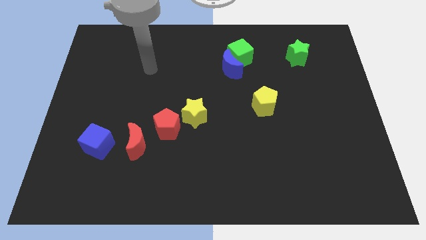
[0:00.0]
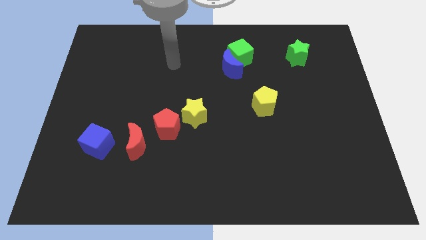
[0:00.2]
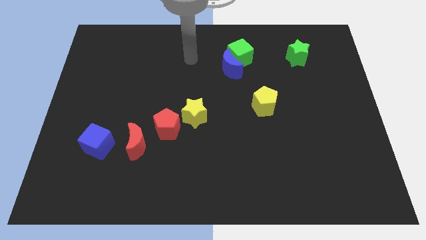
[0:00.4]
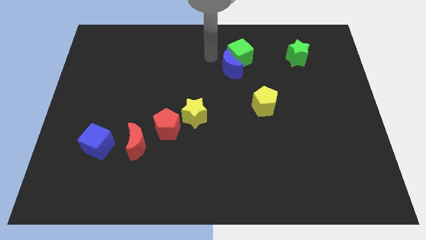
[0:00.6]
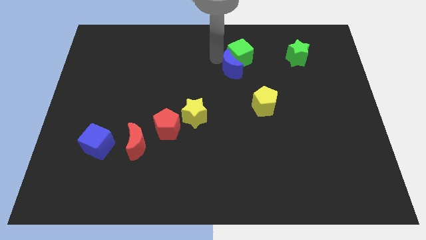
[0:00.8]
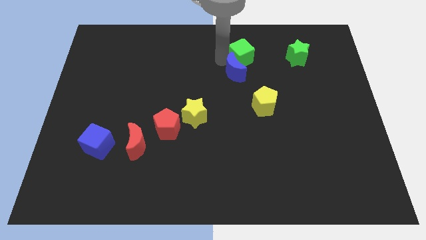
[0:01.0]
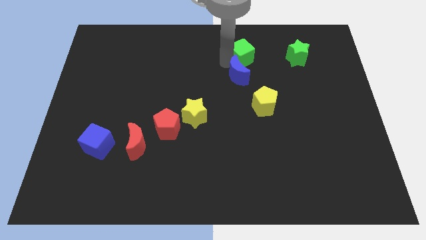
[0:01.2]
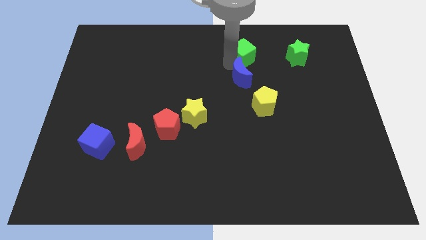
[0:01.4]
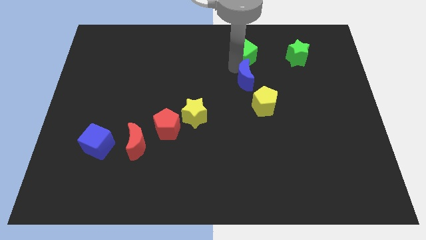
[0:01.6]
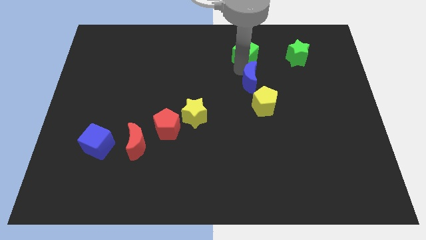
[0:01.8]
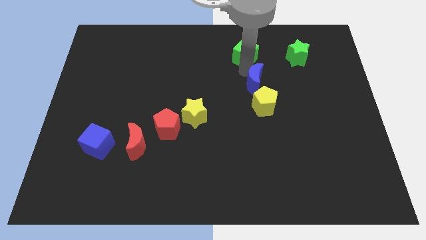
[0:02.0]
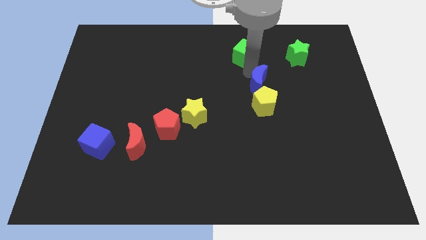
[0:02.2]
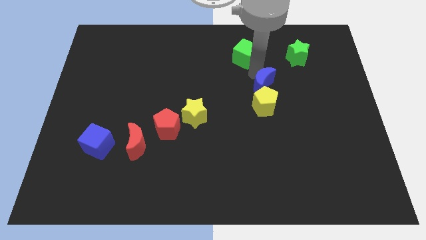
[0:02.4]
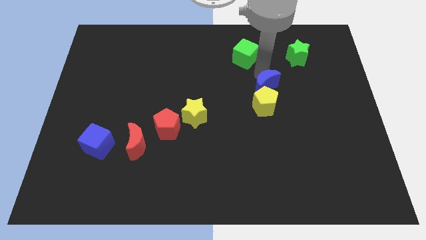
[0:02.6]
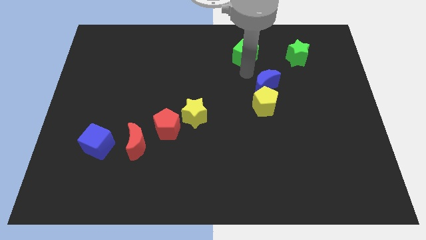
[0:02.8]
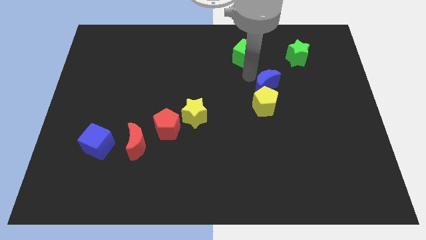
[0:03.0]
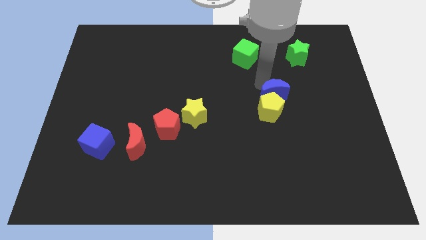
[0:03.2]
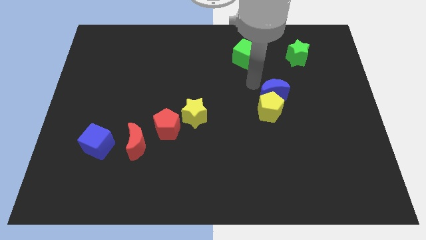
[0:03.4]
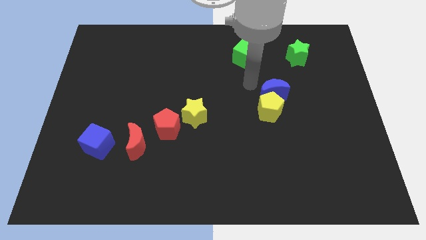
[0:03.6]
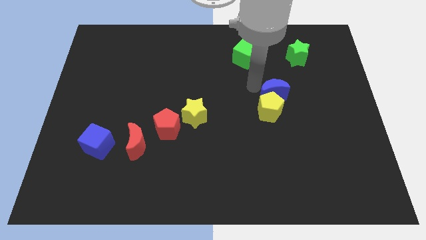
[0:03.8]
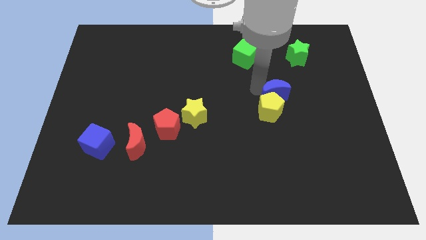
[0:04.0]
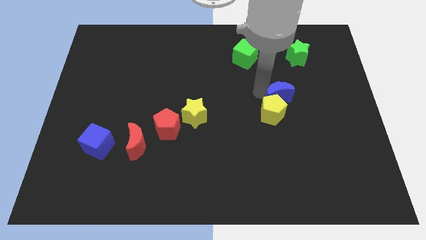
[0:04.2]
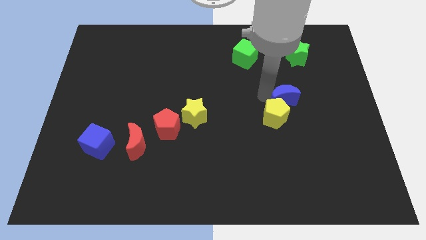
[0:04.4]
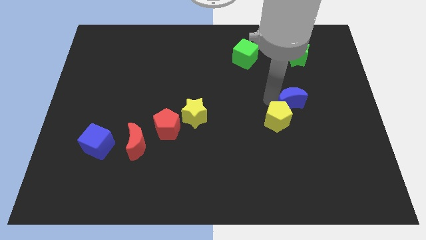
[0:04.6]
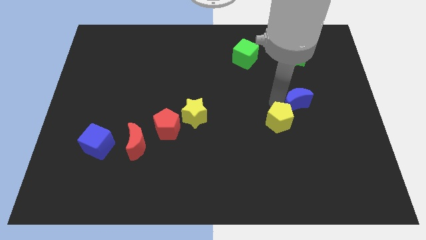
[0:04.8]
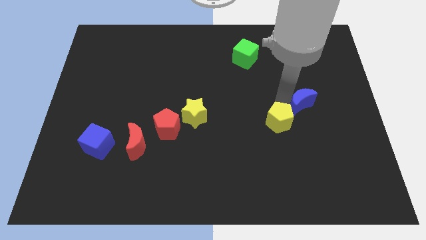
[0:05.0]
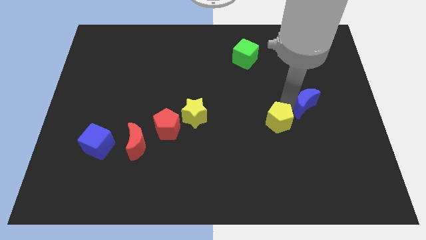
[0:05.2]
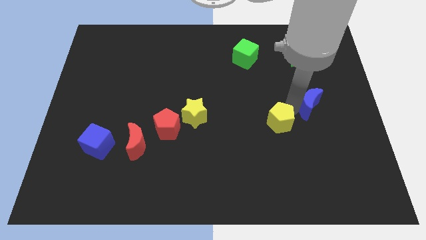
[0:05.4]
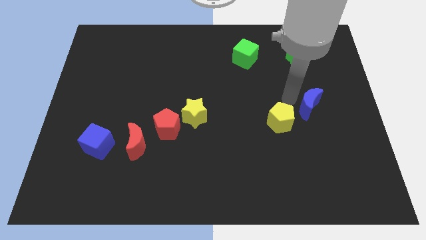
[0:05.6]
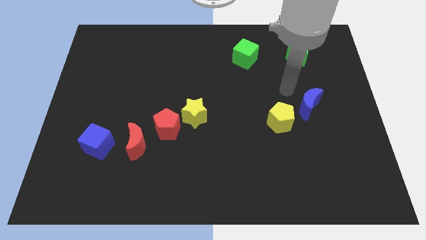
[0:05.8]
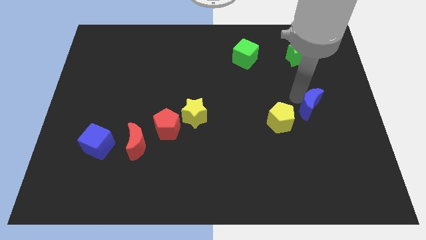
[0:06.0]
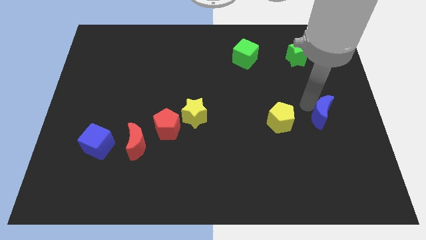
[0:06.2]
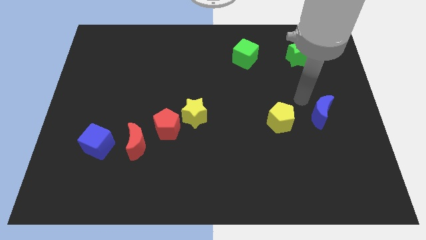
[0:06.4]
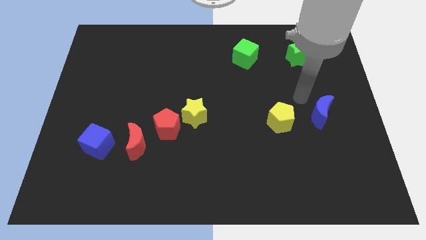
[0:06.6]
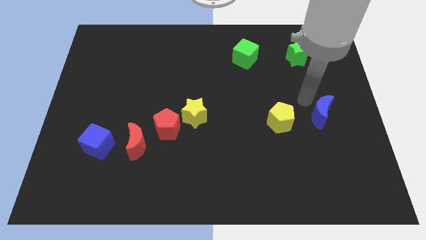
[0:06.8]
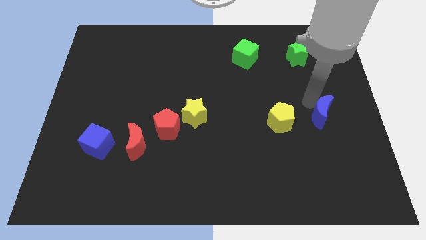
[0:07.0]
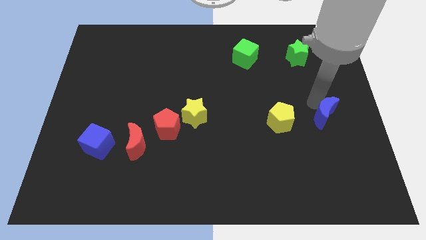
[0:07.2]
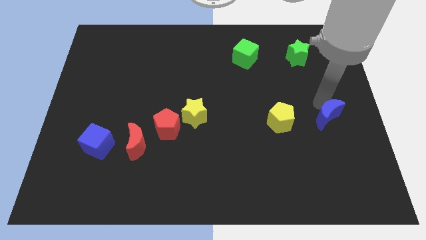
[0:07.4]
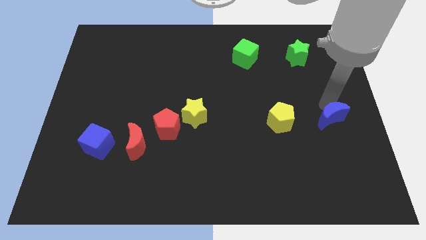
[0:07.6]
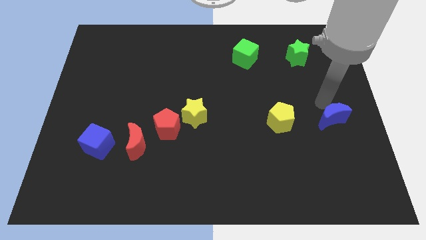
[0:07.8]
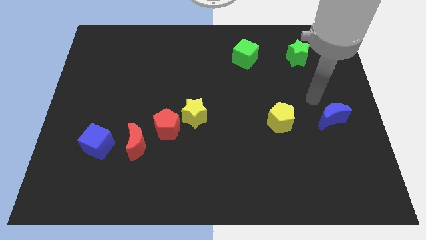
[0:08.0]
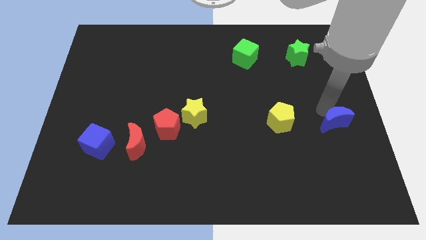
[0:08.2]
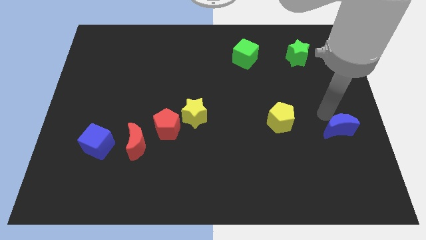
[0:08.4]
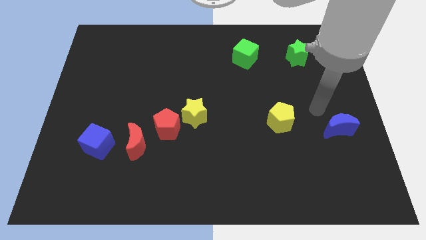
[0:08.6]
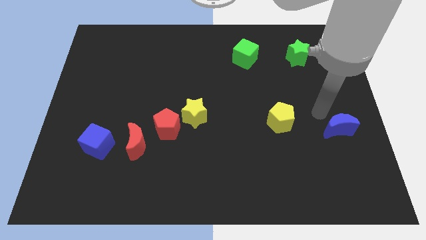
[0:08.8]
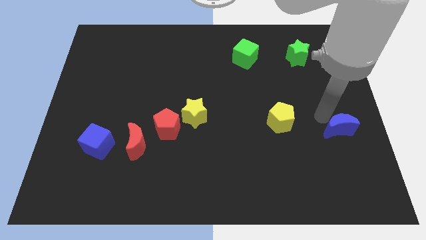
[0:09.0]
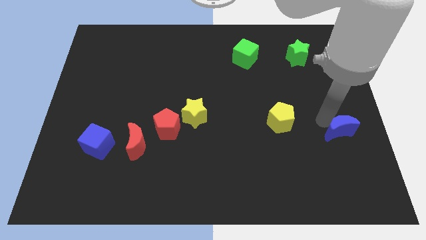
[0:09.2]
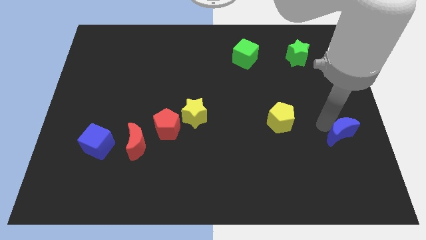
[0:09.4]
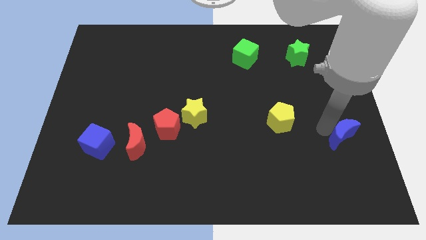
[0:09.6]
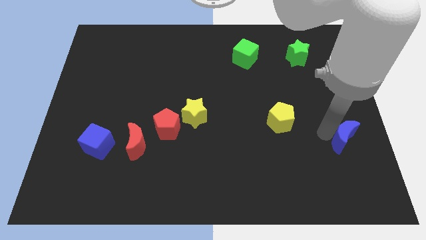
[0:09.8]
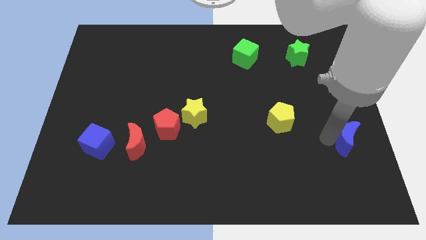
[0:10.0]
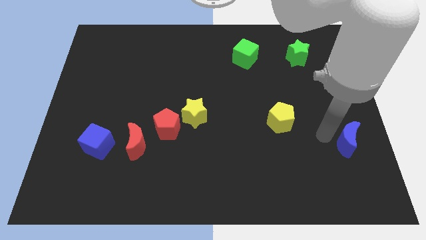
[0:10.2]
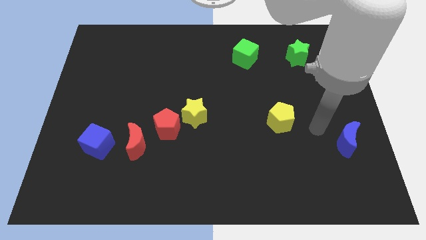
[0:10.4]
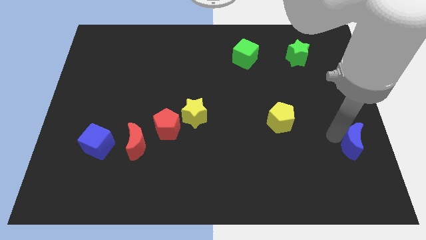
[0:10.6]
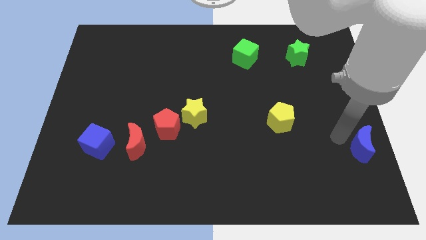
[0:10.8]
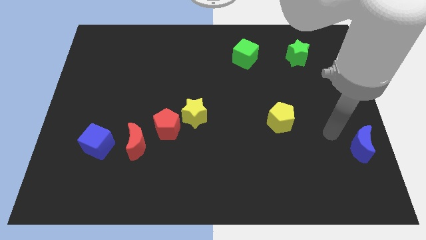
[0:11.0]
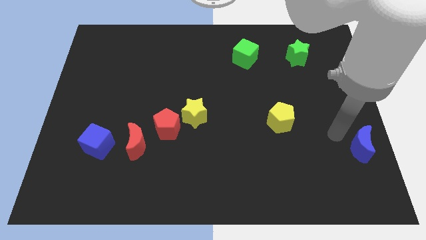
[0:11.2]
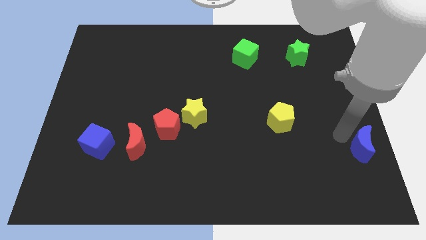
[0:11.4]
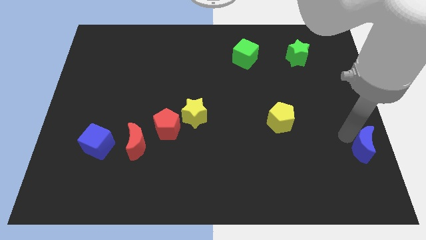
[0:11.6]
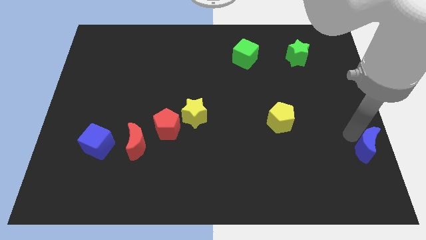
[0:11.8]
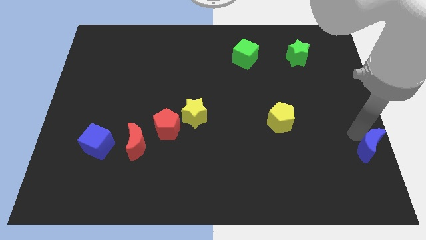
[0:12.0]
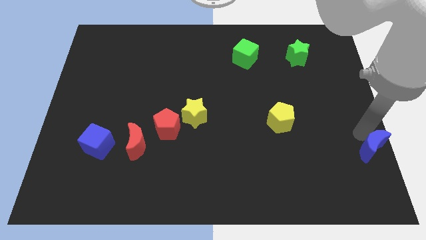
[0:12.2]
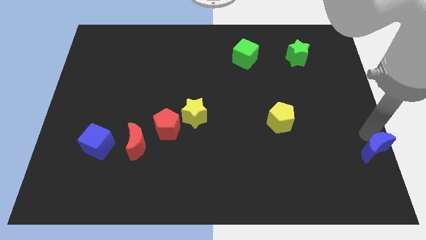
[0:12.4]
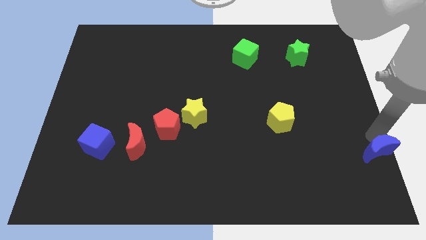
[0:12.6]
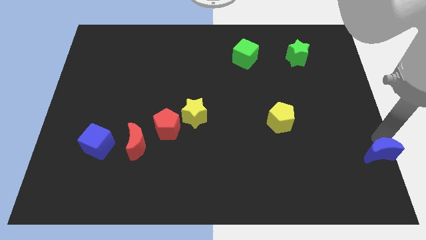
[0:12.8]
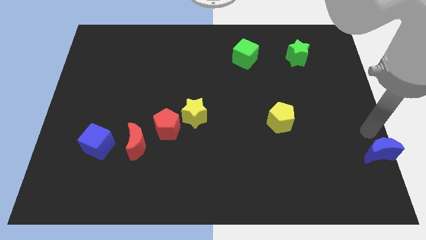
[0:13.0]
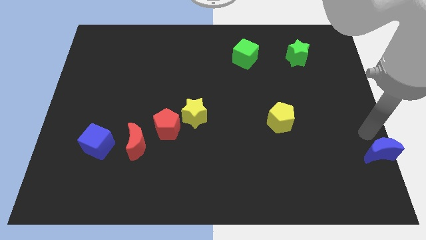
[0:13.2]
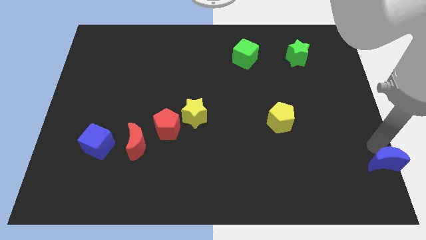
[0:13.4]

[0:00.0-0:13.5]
slide the blue moon to the bottom right
